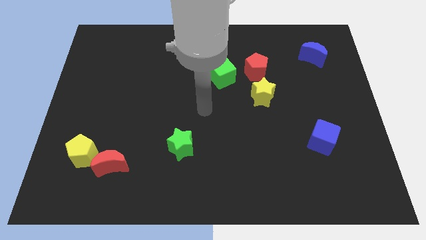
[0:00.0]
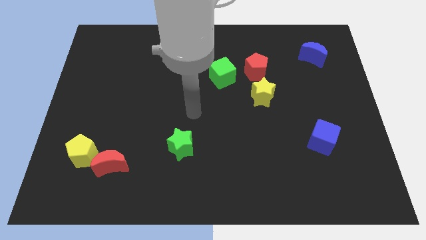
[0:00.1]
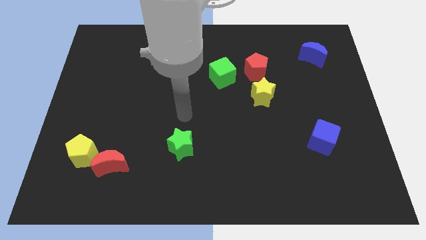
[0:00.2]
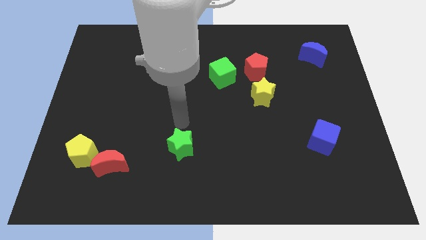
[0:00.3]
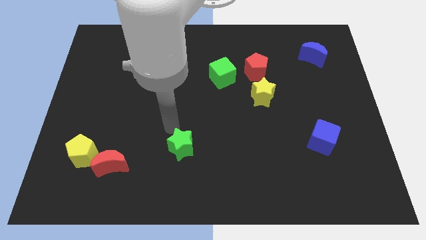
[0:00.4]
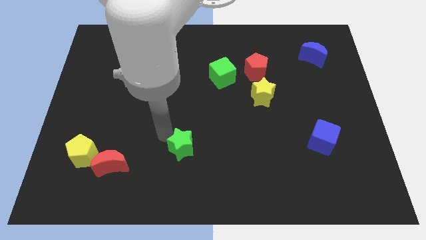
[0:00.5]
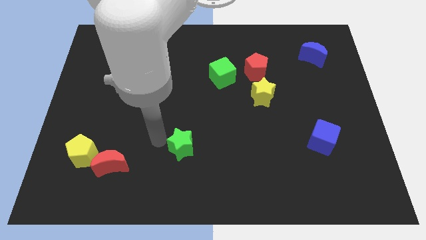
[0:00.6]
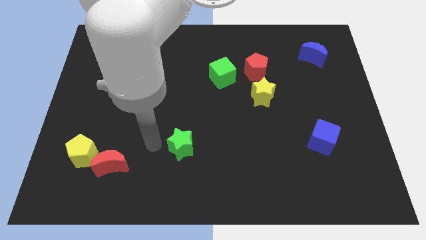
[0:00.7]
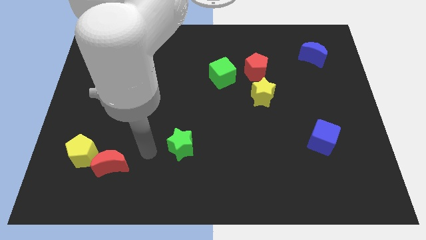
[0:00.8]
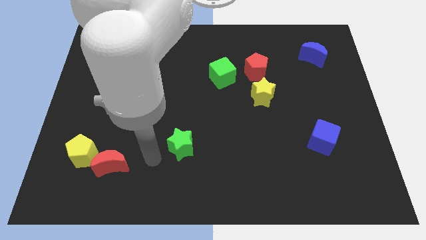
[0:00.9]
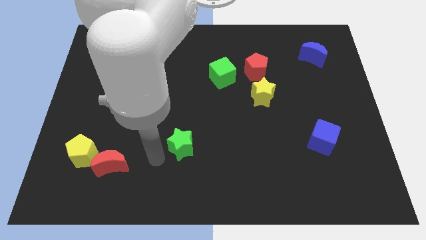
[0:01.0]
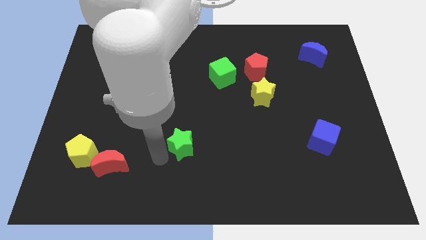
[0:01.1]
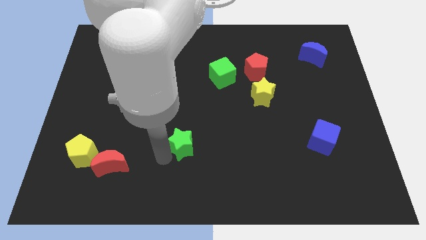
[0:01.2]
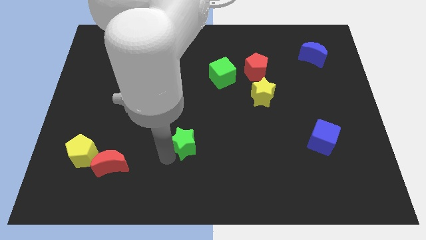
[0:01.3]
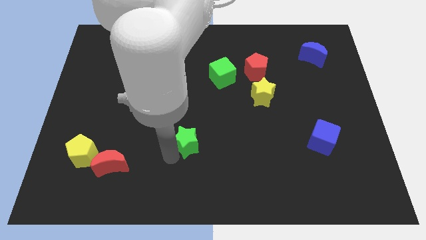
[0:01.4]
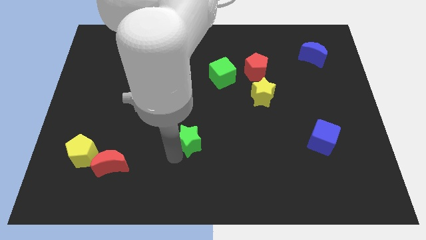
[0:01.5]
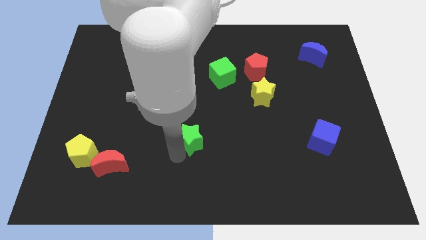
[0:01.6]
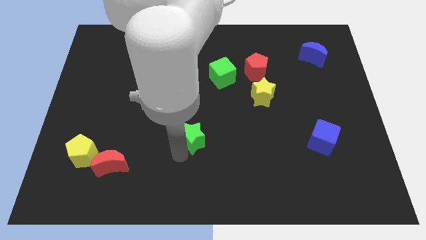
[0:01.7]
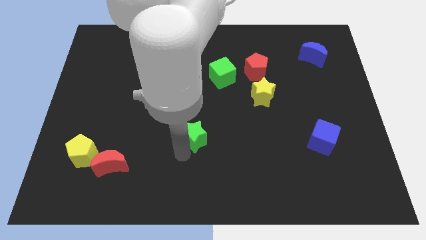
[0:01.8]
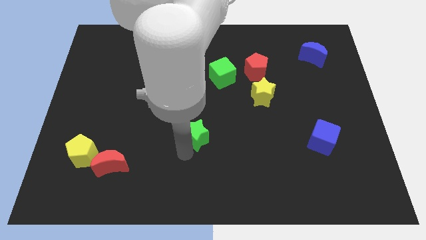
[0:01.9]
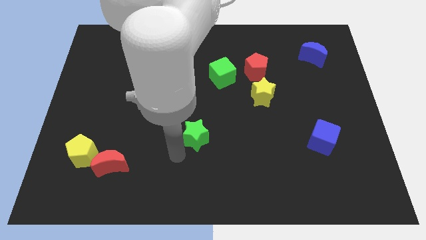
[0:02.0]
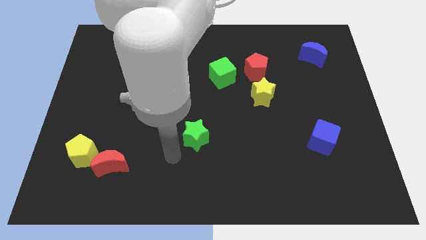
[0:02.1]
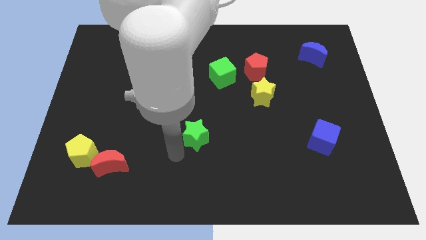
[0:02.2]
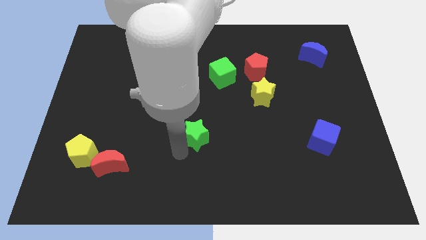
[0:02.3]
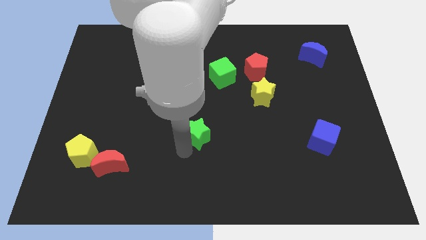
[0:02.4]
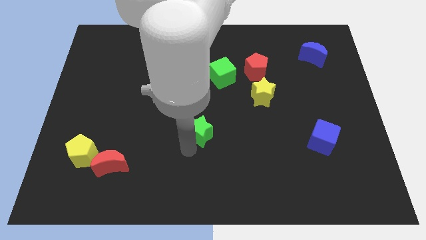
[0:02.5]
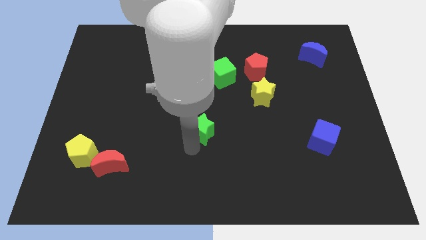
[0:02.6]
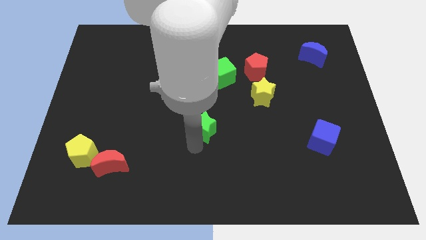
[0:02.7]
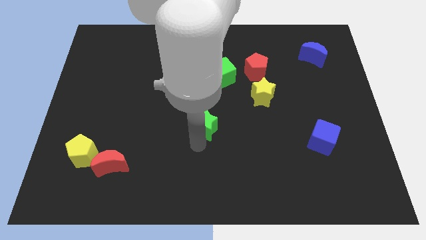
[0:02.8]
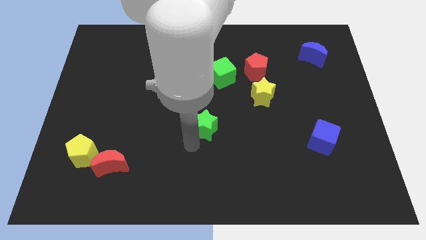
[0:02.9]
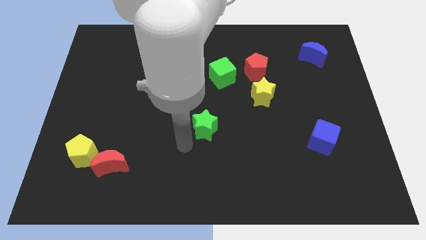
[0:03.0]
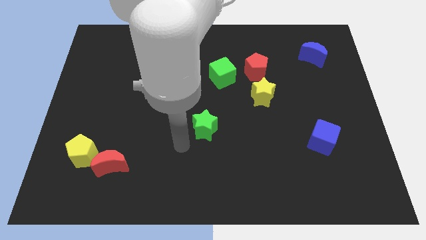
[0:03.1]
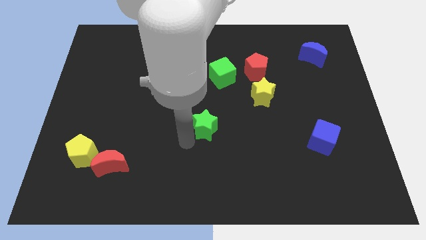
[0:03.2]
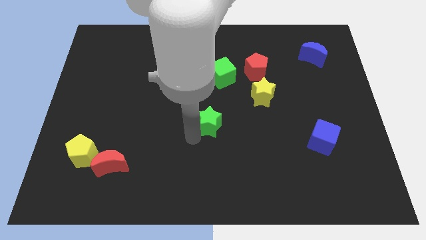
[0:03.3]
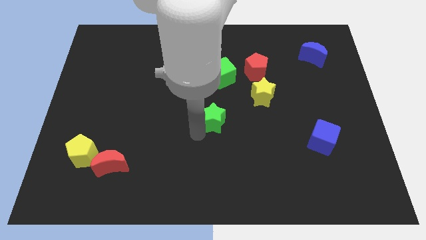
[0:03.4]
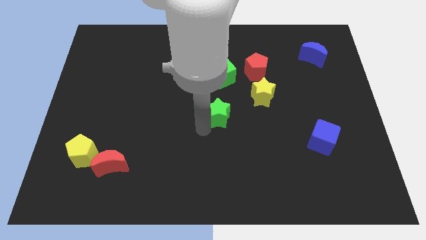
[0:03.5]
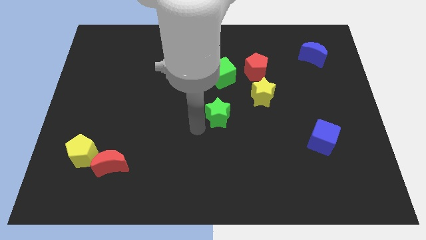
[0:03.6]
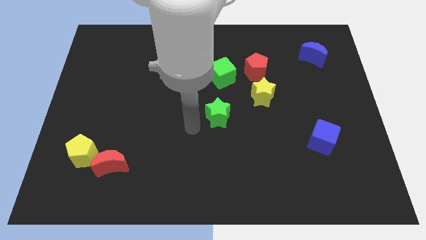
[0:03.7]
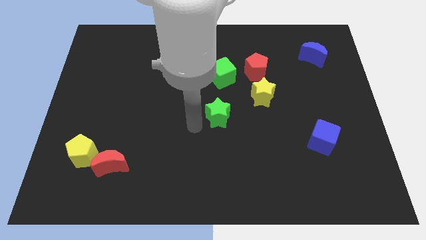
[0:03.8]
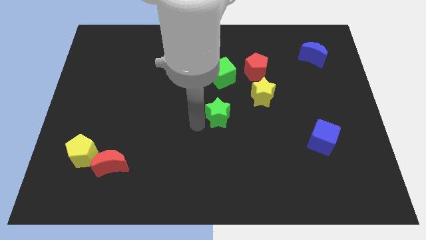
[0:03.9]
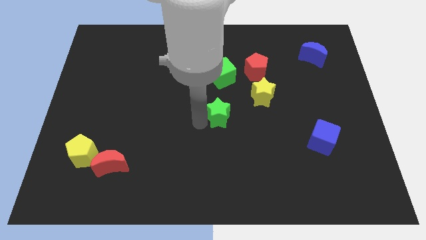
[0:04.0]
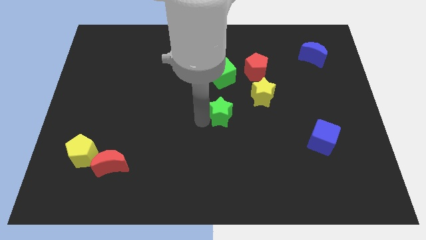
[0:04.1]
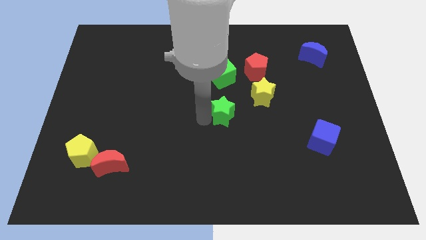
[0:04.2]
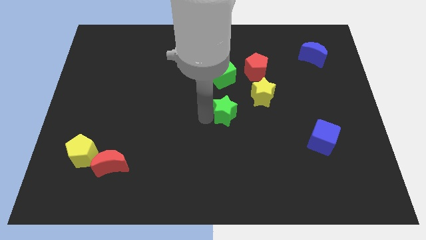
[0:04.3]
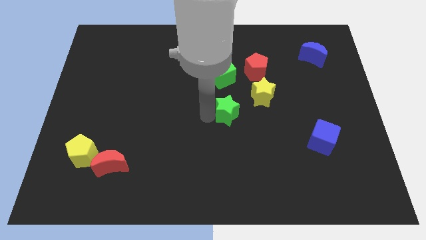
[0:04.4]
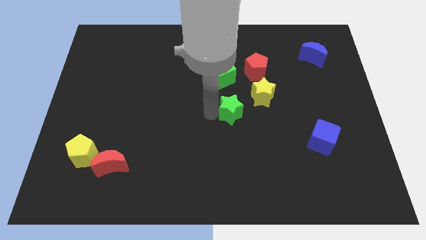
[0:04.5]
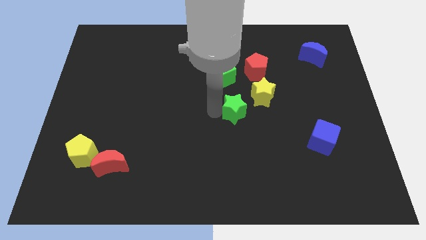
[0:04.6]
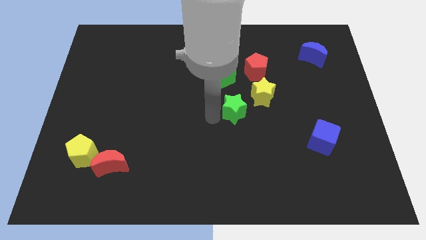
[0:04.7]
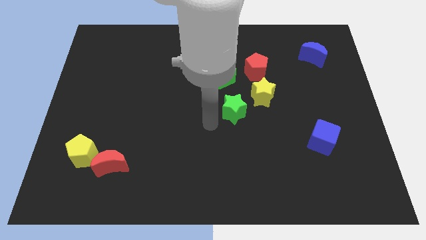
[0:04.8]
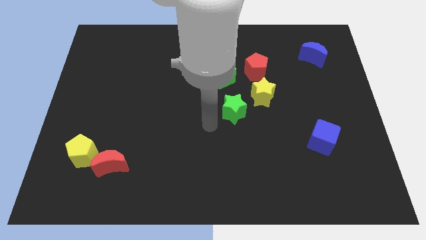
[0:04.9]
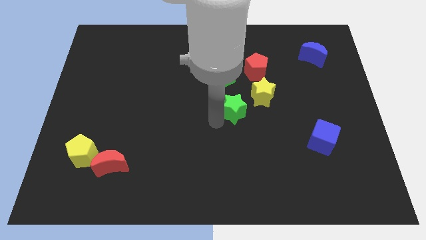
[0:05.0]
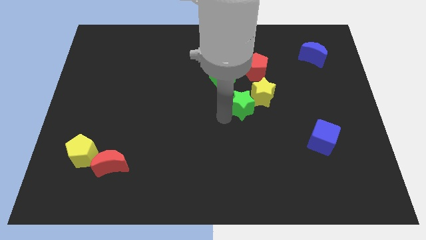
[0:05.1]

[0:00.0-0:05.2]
move the green star to the yellow star

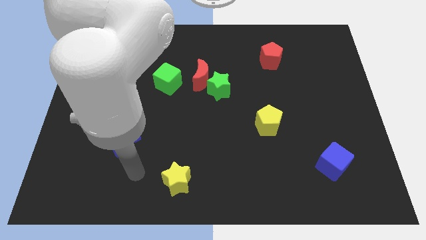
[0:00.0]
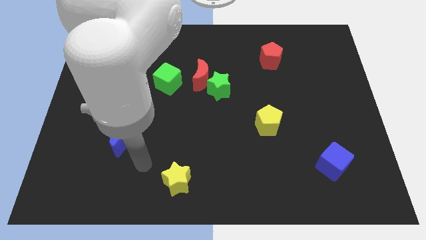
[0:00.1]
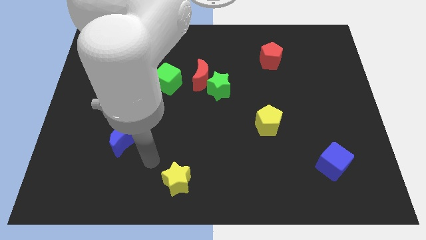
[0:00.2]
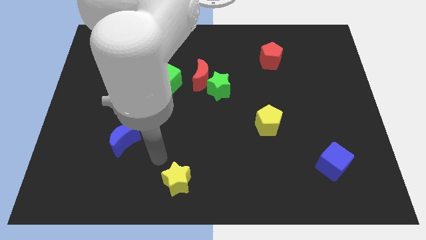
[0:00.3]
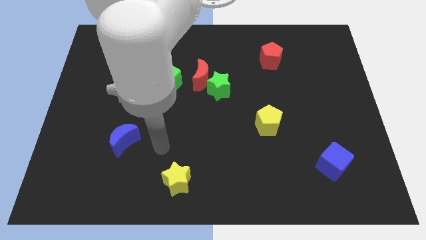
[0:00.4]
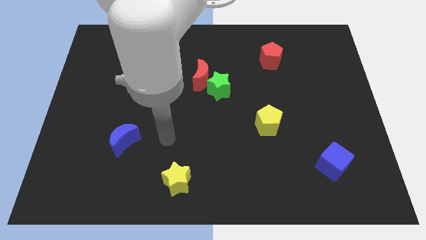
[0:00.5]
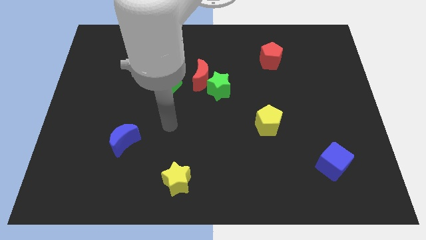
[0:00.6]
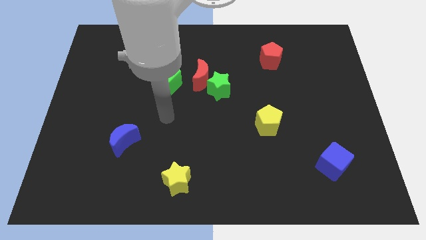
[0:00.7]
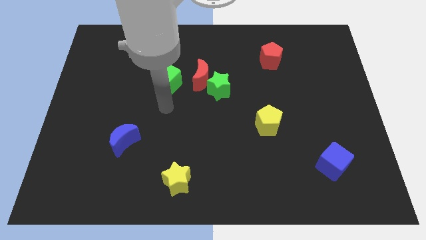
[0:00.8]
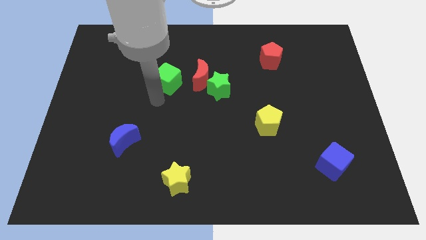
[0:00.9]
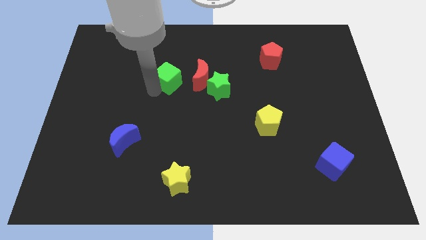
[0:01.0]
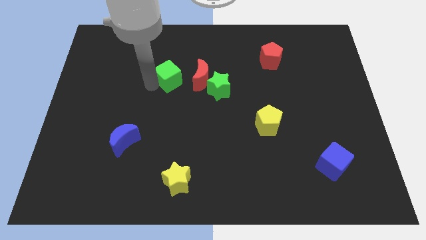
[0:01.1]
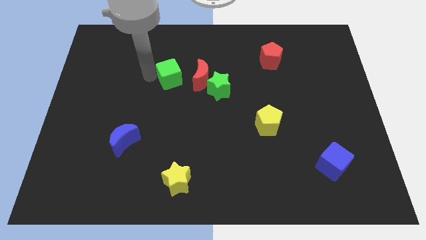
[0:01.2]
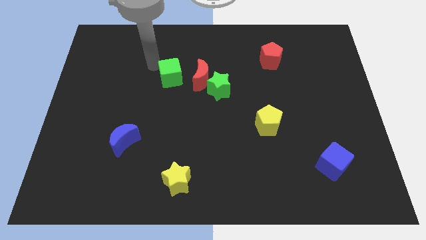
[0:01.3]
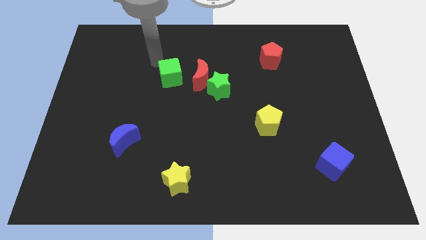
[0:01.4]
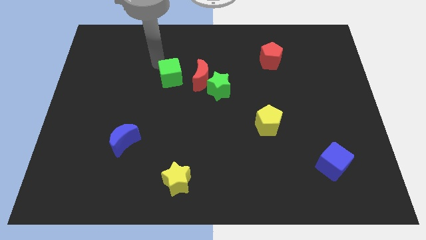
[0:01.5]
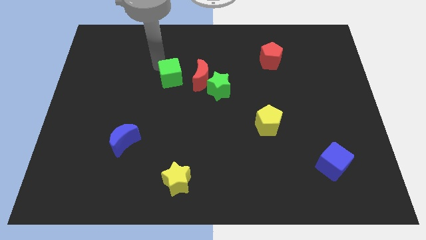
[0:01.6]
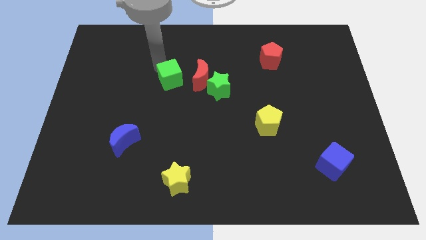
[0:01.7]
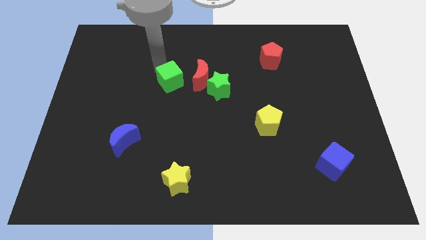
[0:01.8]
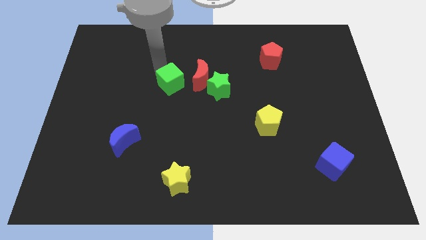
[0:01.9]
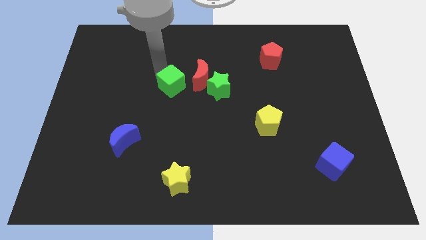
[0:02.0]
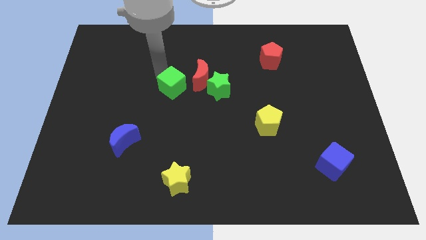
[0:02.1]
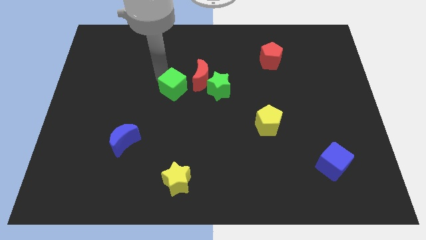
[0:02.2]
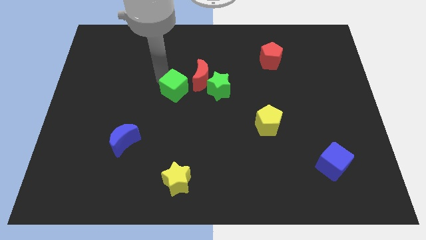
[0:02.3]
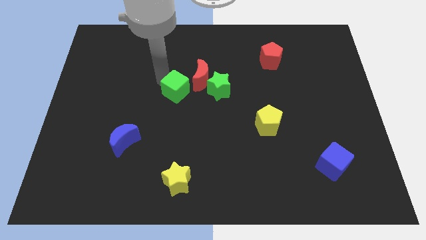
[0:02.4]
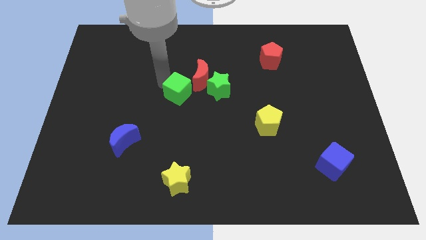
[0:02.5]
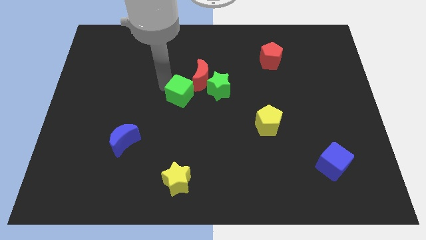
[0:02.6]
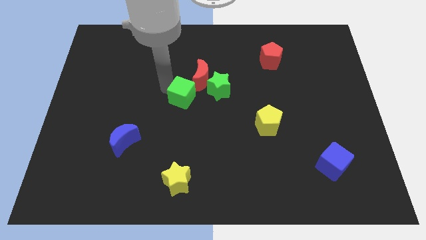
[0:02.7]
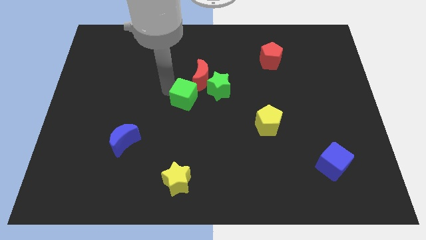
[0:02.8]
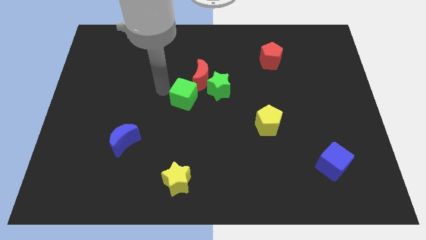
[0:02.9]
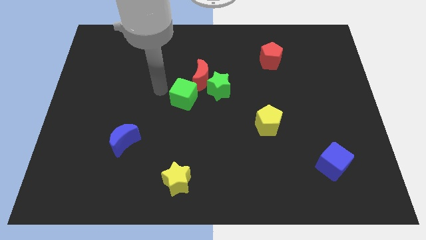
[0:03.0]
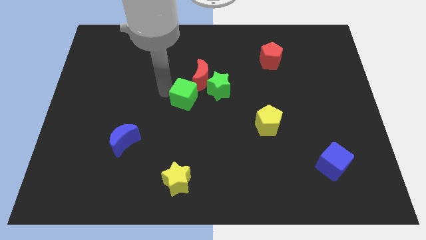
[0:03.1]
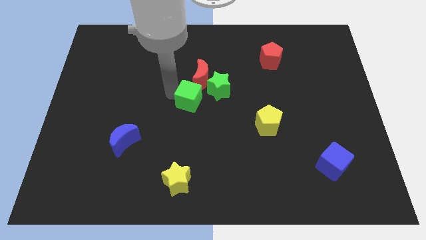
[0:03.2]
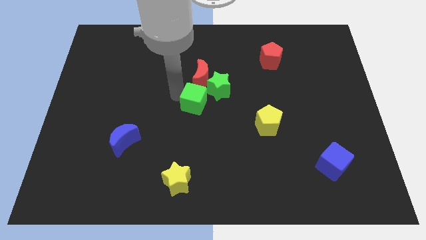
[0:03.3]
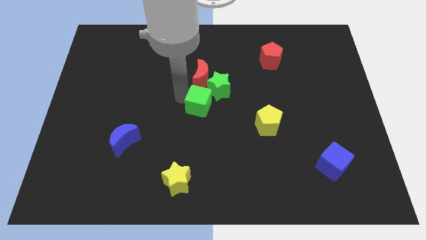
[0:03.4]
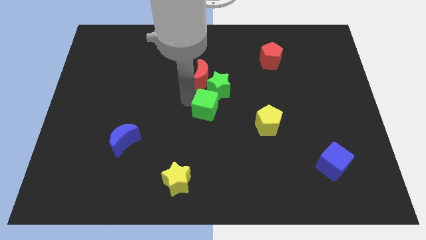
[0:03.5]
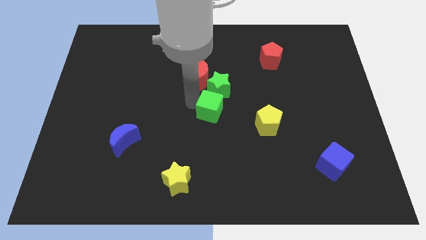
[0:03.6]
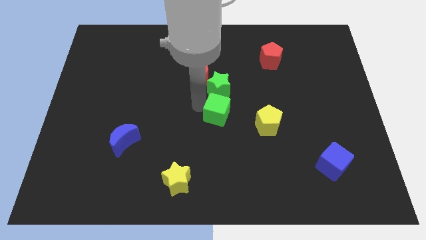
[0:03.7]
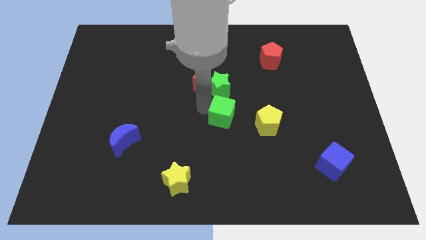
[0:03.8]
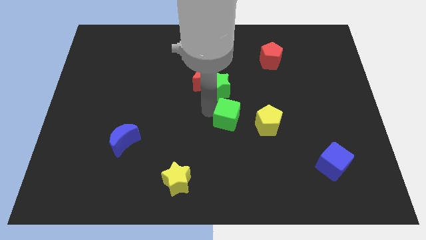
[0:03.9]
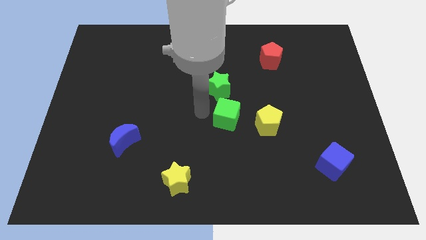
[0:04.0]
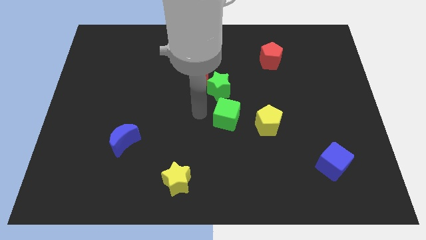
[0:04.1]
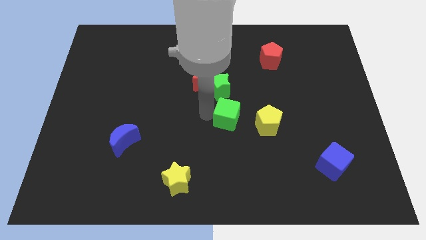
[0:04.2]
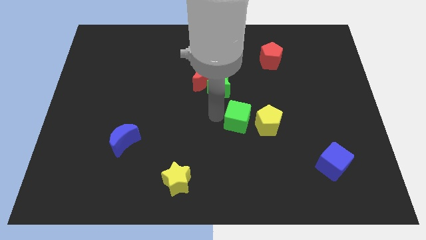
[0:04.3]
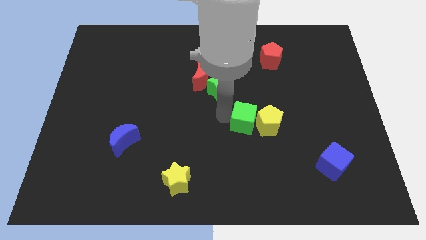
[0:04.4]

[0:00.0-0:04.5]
put the green cube towards the yellow pentagon
